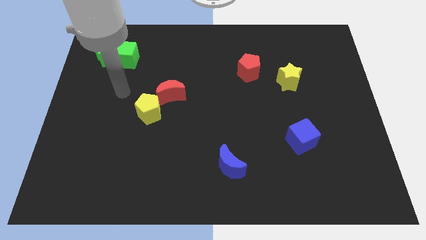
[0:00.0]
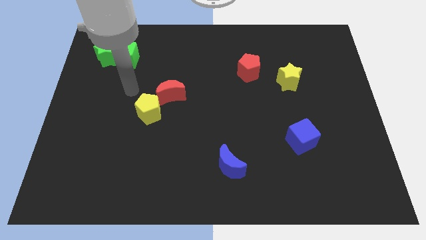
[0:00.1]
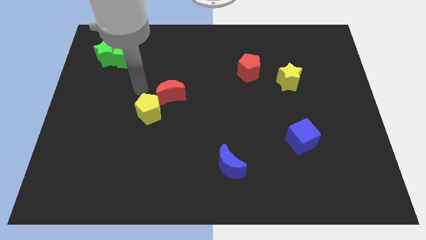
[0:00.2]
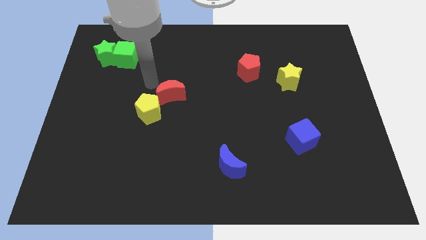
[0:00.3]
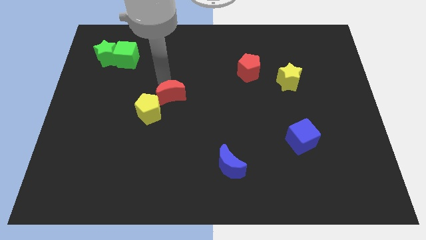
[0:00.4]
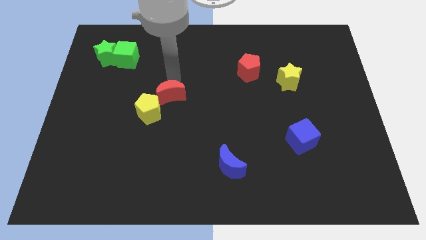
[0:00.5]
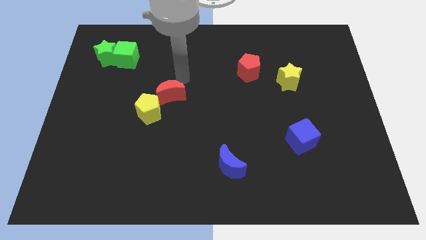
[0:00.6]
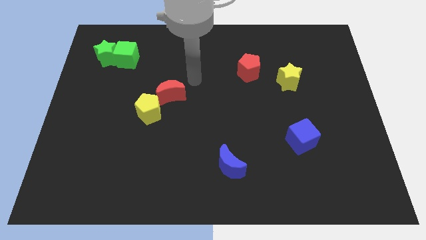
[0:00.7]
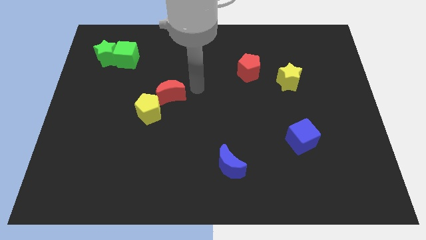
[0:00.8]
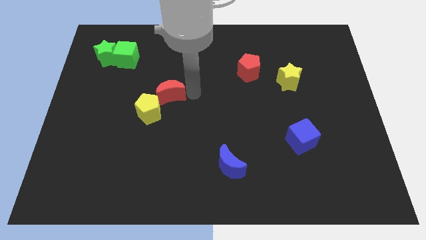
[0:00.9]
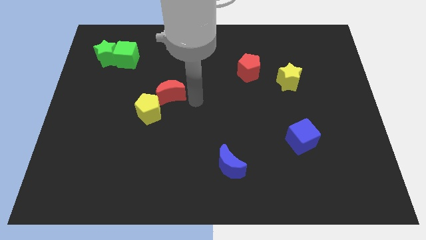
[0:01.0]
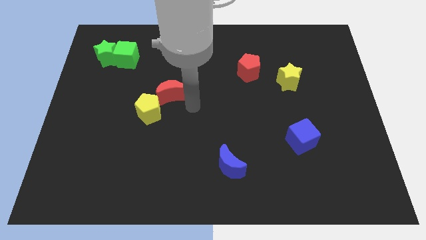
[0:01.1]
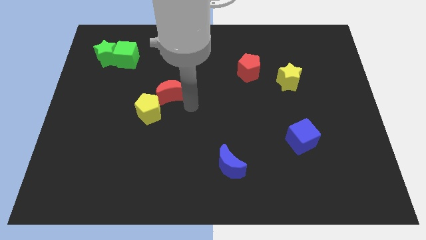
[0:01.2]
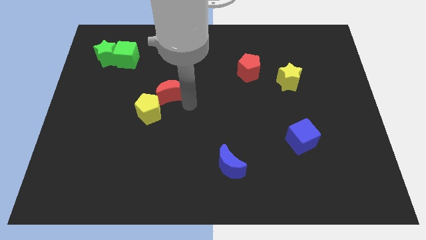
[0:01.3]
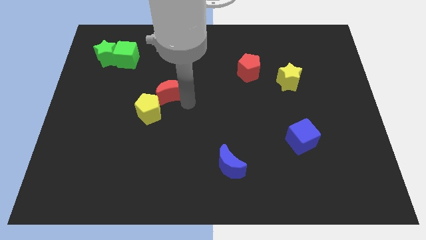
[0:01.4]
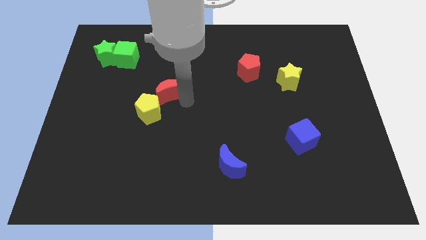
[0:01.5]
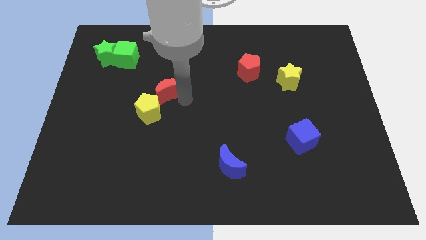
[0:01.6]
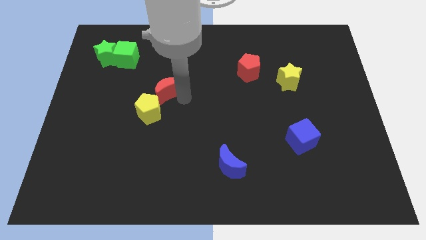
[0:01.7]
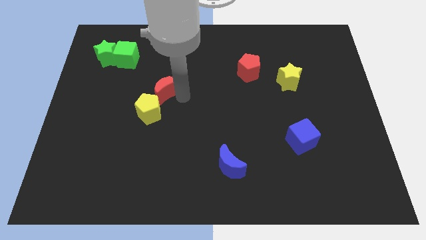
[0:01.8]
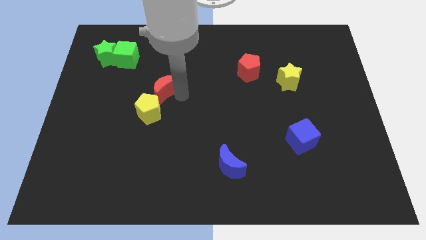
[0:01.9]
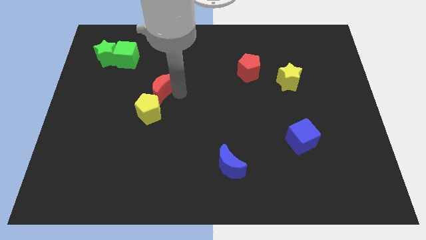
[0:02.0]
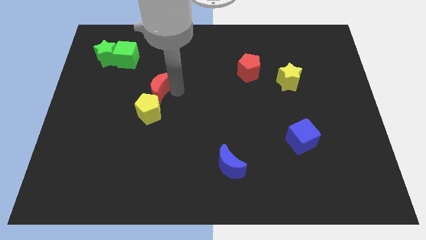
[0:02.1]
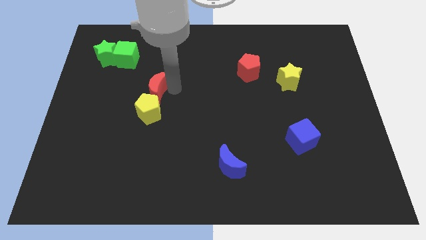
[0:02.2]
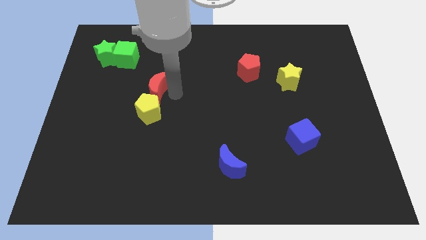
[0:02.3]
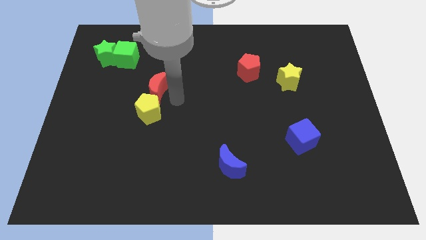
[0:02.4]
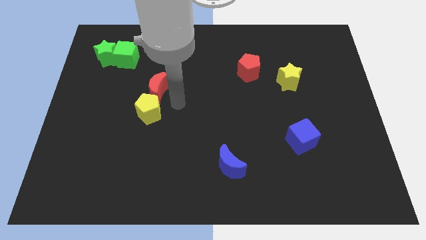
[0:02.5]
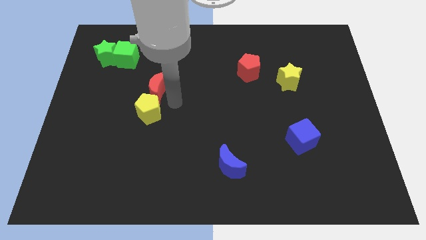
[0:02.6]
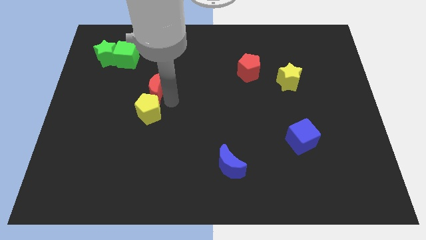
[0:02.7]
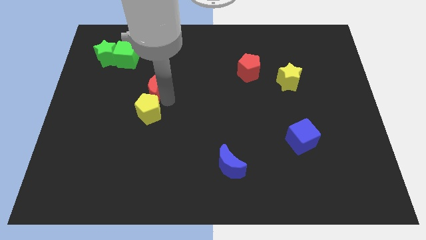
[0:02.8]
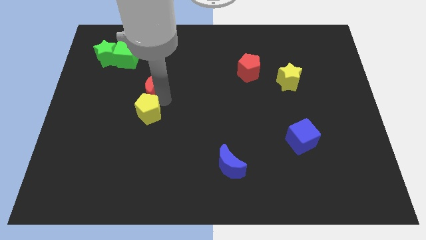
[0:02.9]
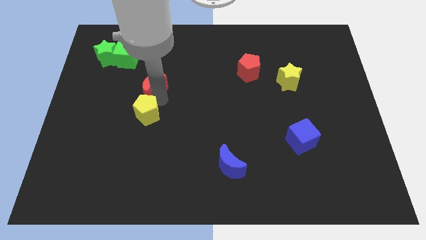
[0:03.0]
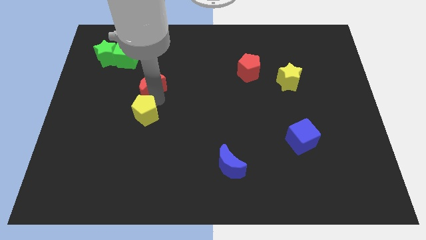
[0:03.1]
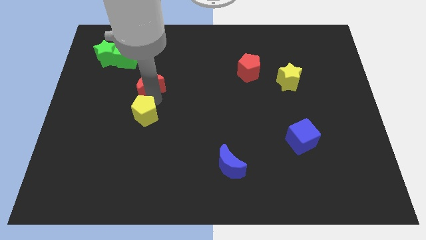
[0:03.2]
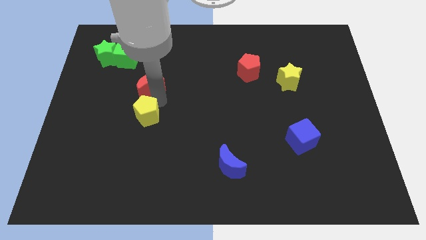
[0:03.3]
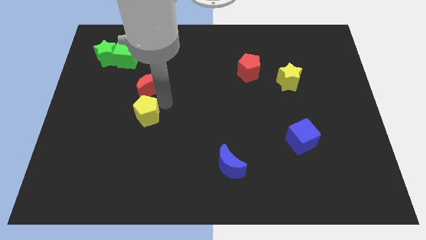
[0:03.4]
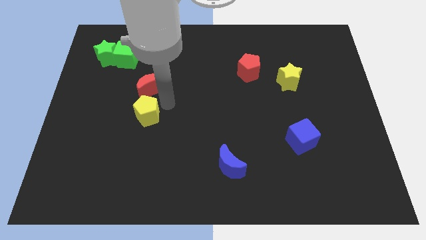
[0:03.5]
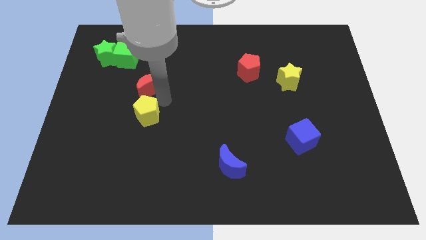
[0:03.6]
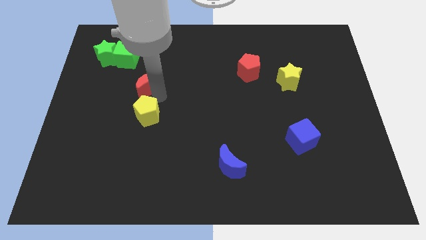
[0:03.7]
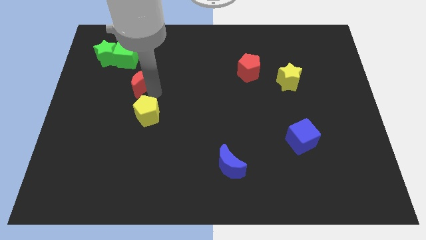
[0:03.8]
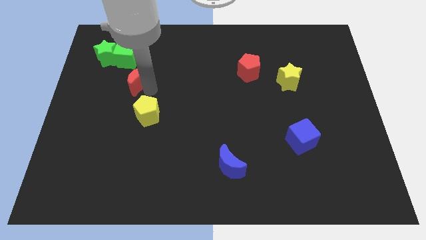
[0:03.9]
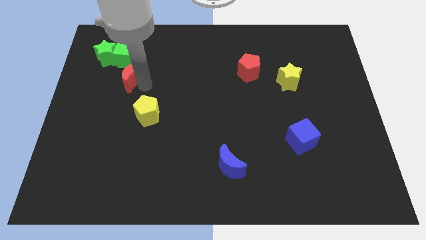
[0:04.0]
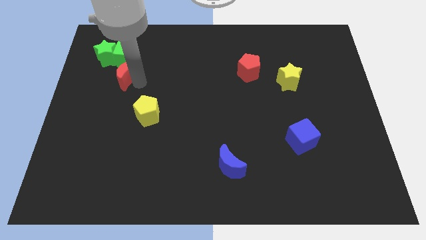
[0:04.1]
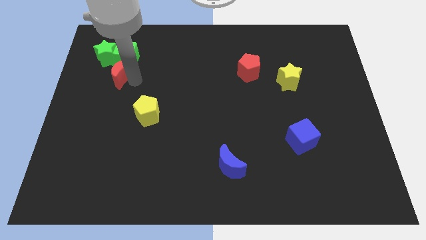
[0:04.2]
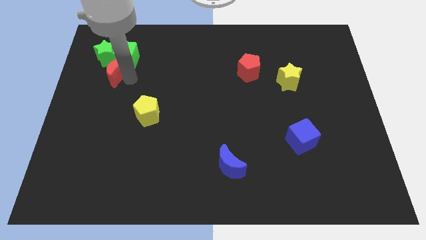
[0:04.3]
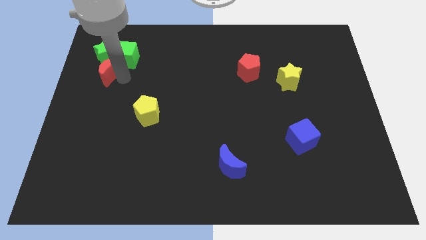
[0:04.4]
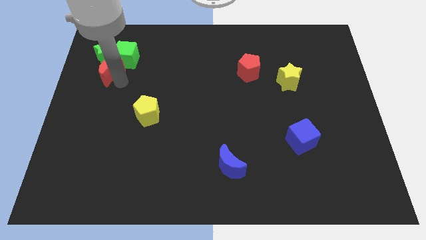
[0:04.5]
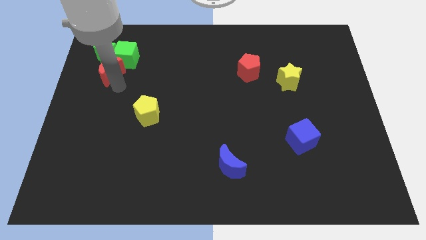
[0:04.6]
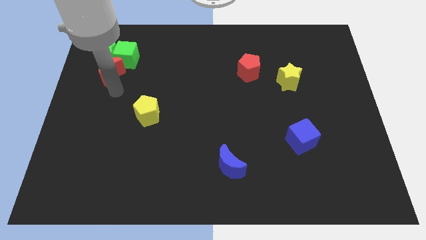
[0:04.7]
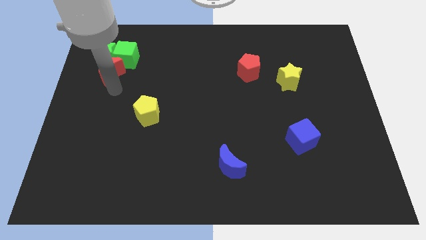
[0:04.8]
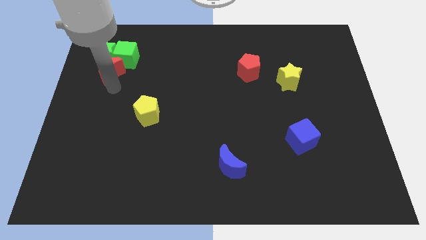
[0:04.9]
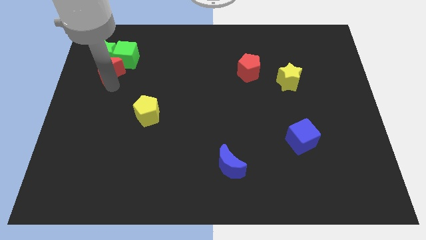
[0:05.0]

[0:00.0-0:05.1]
put the red moon towards the green star

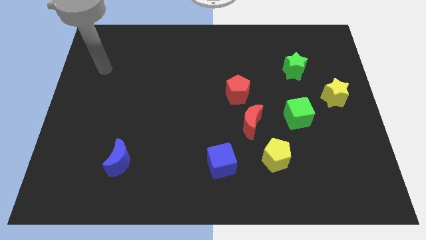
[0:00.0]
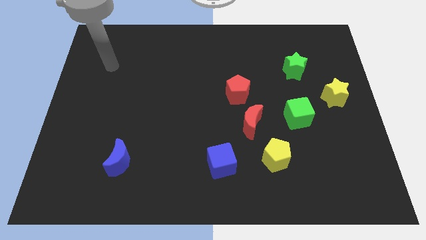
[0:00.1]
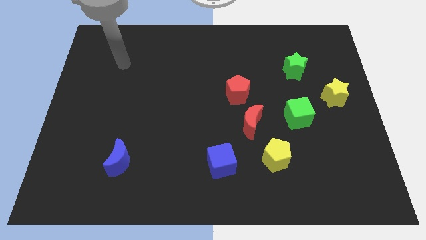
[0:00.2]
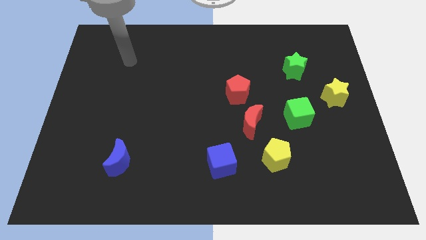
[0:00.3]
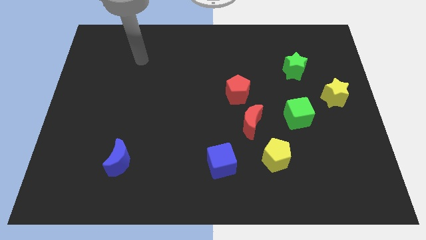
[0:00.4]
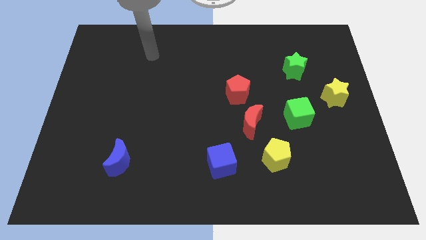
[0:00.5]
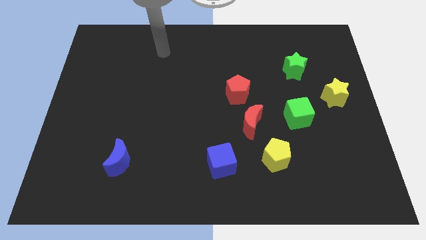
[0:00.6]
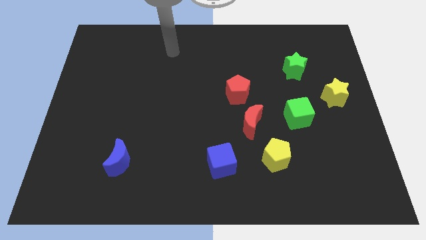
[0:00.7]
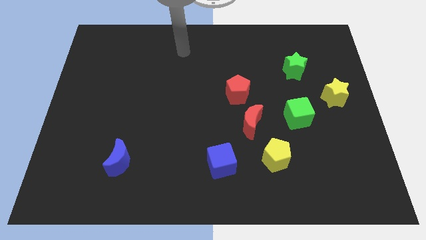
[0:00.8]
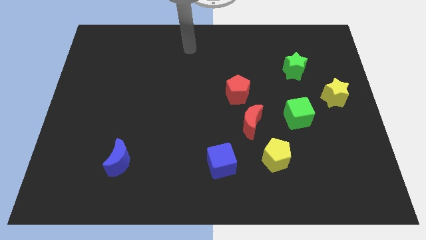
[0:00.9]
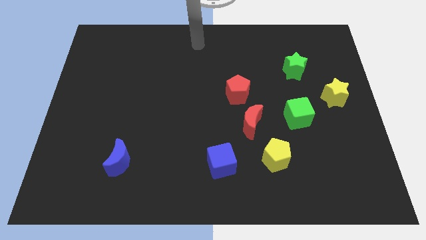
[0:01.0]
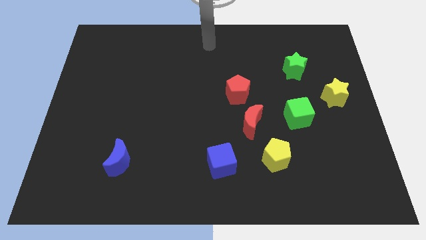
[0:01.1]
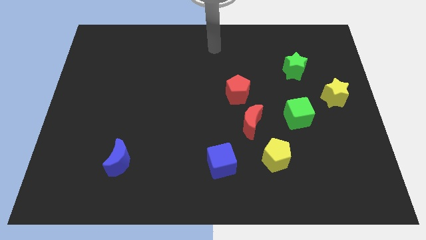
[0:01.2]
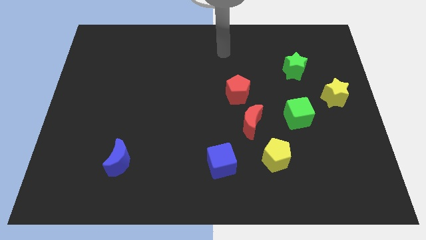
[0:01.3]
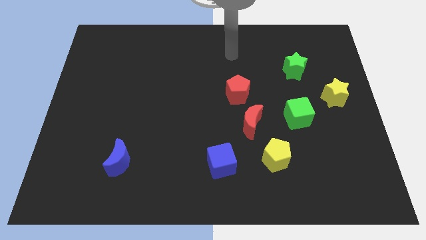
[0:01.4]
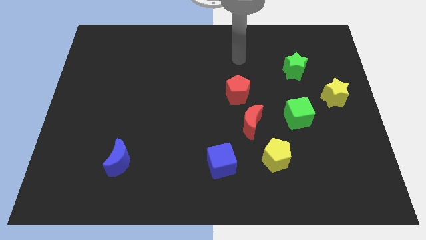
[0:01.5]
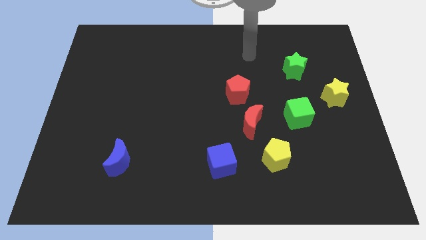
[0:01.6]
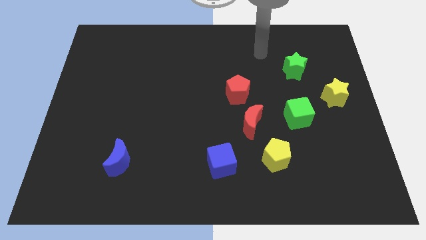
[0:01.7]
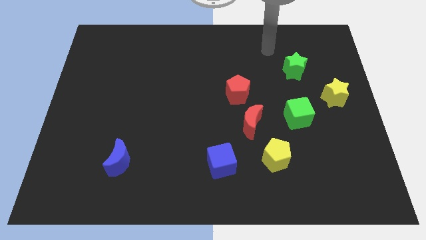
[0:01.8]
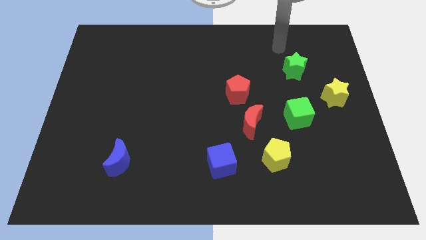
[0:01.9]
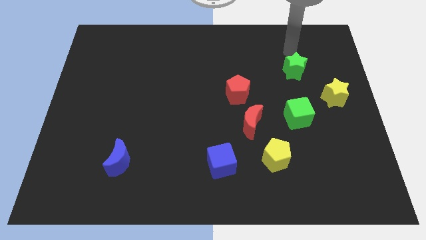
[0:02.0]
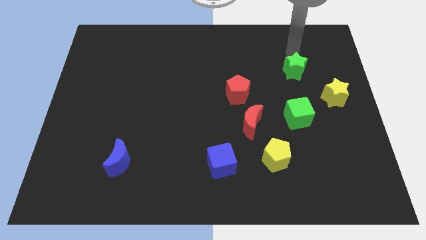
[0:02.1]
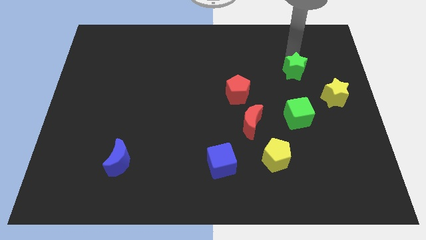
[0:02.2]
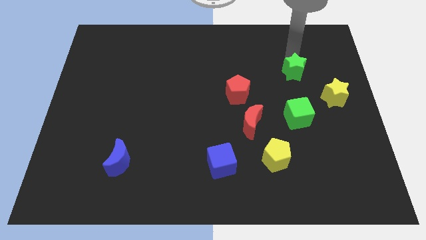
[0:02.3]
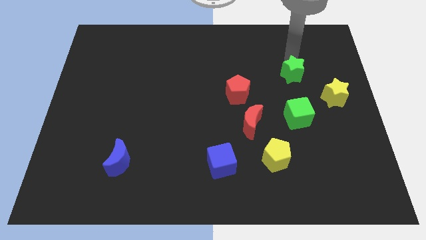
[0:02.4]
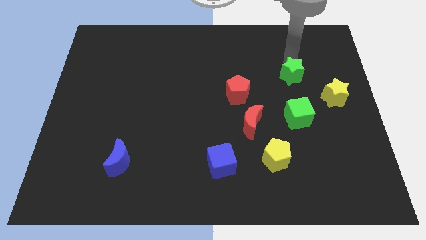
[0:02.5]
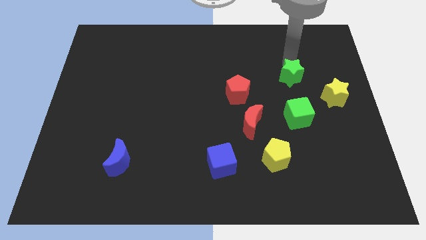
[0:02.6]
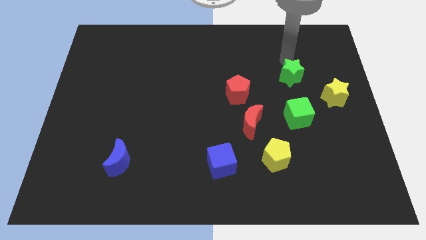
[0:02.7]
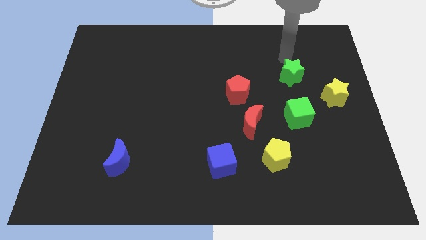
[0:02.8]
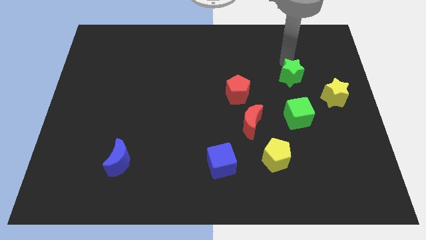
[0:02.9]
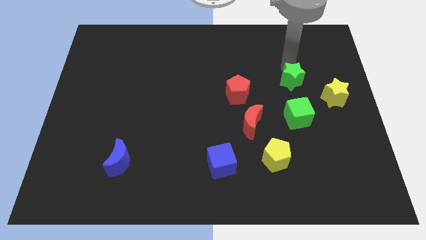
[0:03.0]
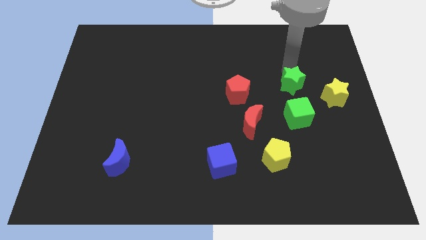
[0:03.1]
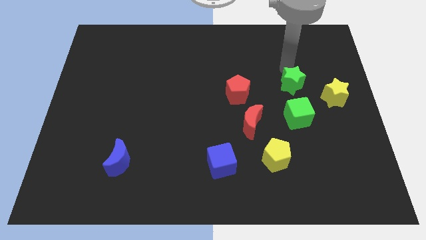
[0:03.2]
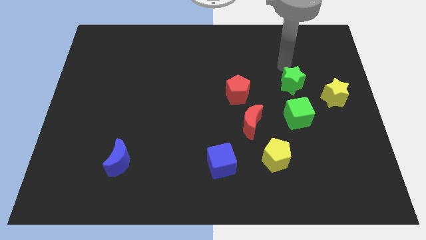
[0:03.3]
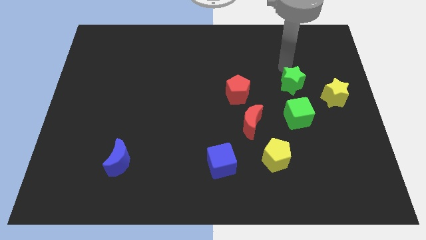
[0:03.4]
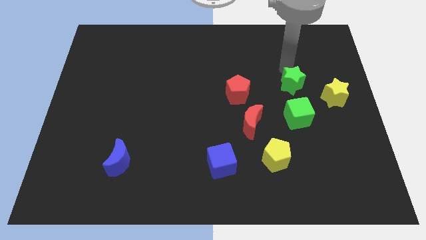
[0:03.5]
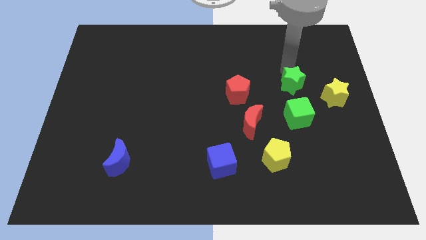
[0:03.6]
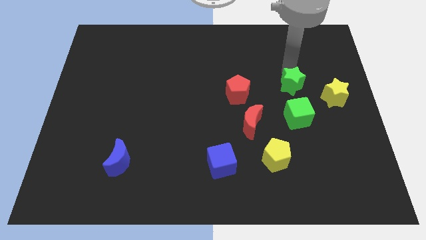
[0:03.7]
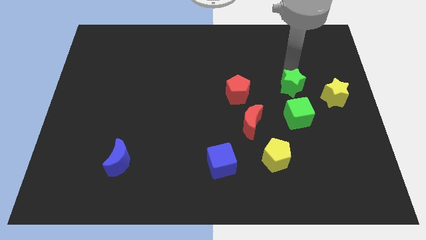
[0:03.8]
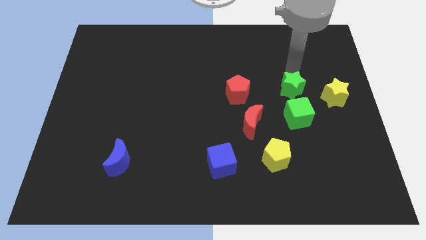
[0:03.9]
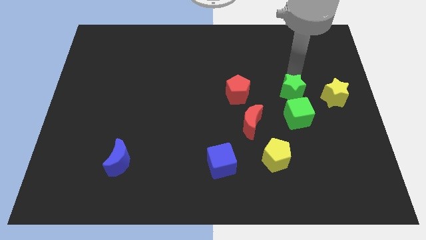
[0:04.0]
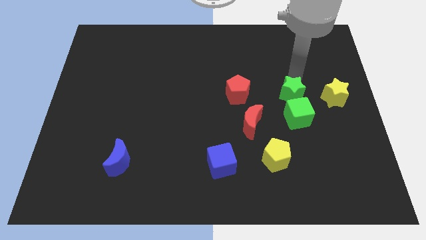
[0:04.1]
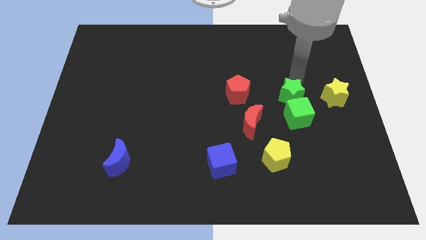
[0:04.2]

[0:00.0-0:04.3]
push the green star to the green cube
